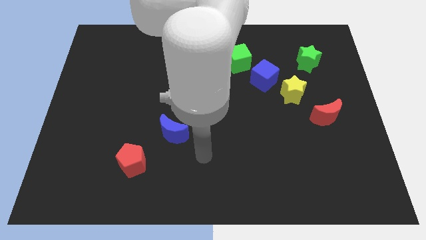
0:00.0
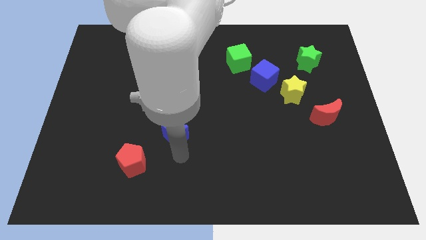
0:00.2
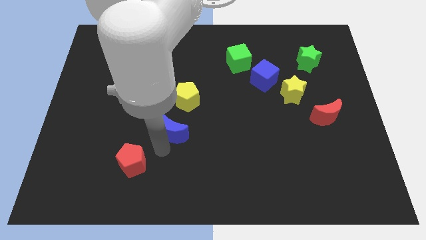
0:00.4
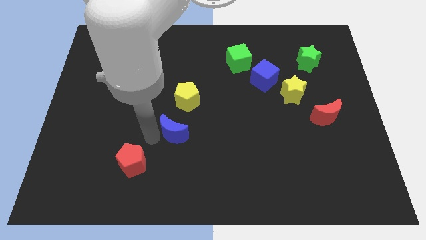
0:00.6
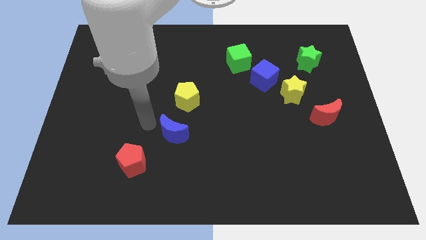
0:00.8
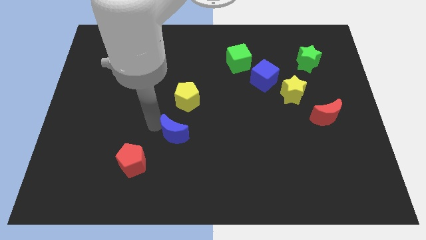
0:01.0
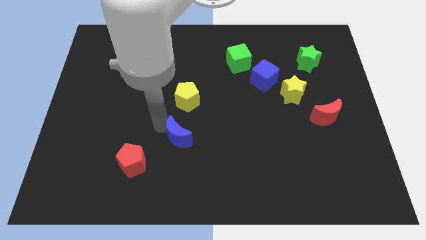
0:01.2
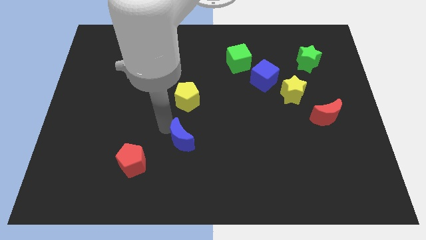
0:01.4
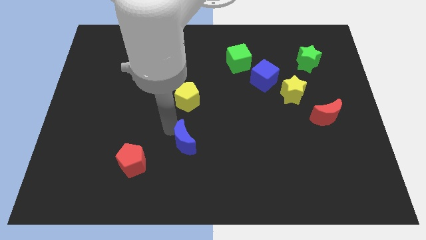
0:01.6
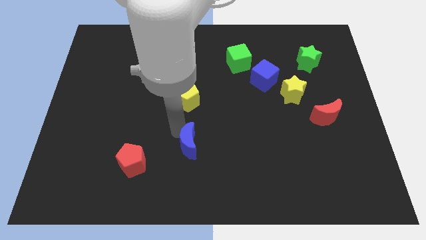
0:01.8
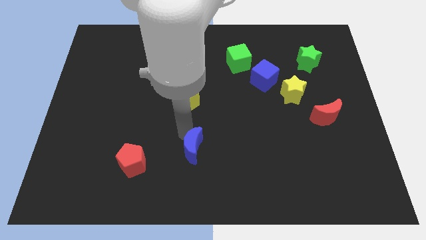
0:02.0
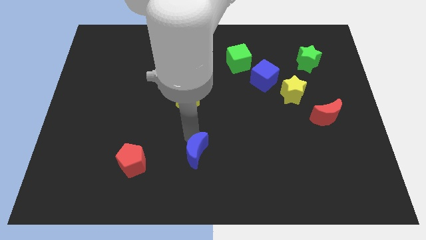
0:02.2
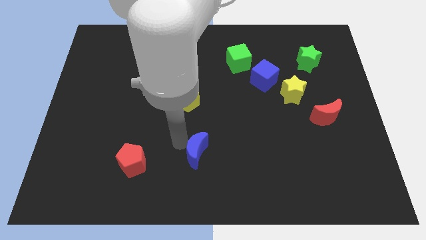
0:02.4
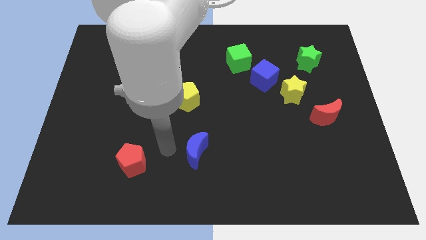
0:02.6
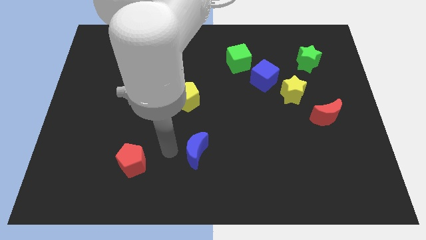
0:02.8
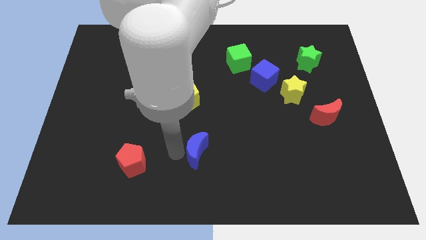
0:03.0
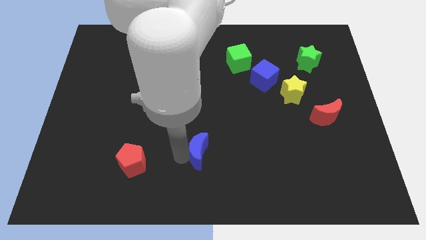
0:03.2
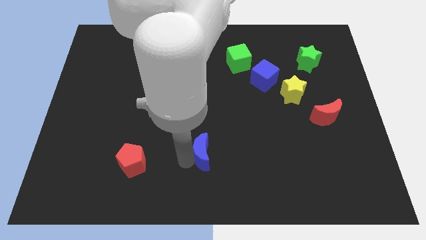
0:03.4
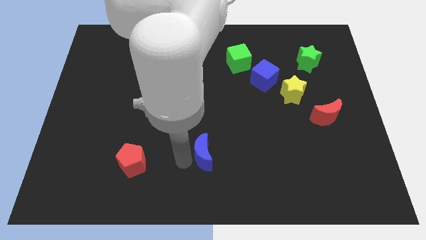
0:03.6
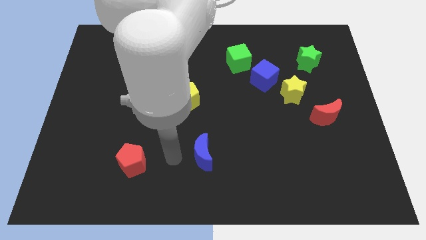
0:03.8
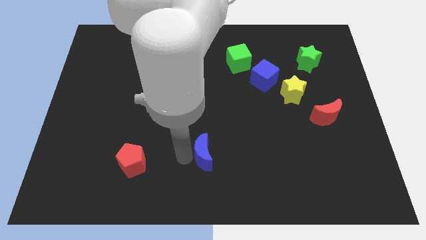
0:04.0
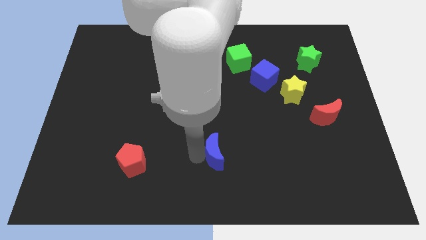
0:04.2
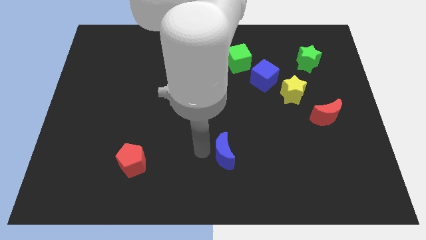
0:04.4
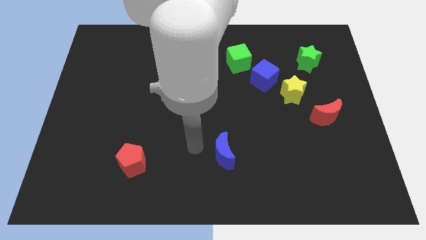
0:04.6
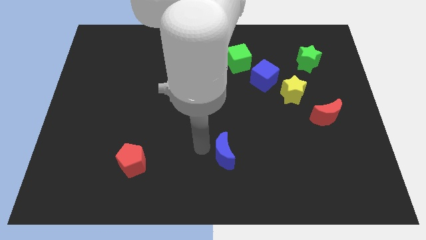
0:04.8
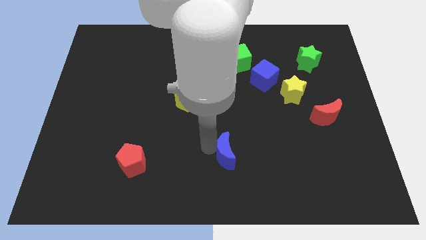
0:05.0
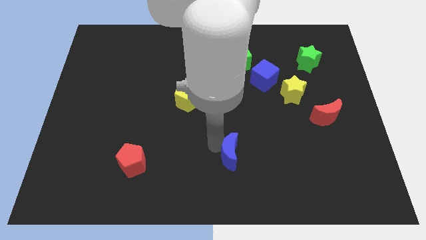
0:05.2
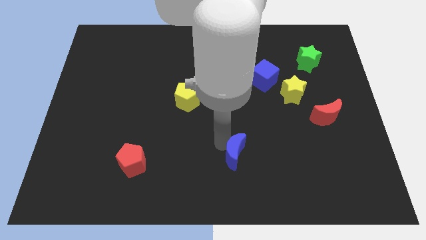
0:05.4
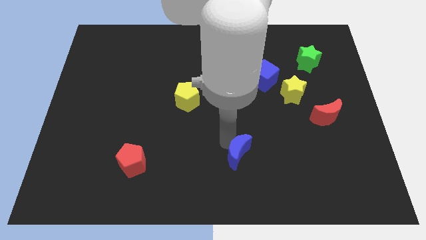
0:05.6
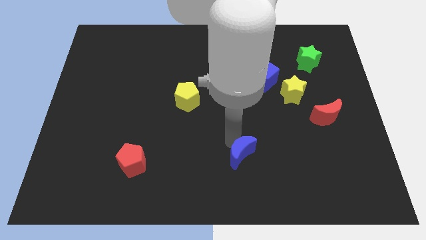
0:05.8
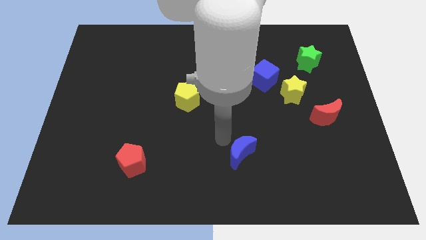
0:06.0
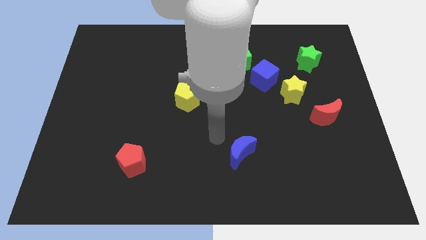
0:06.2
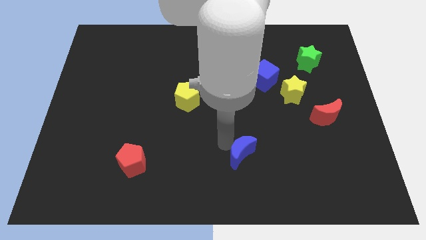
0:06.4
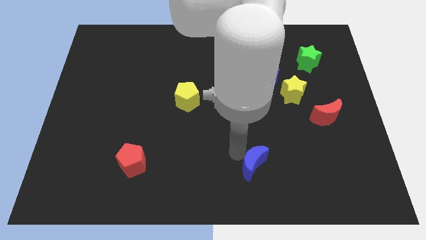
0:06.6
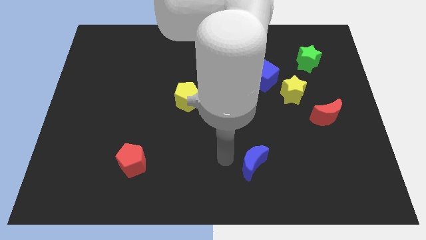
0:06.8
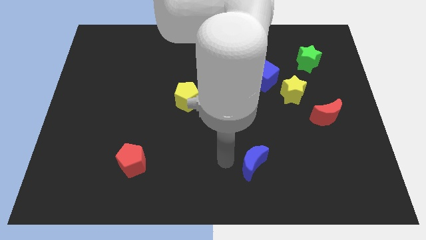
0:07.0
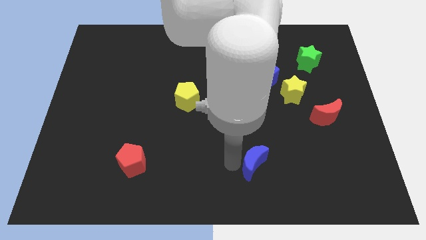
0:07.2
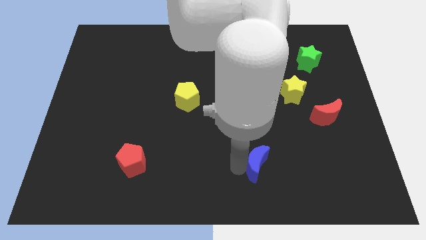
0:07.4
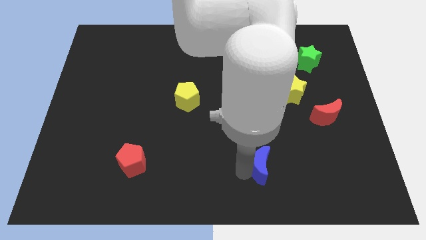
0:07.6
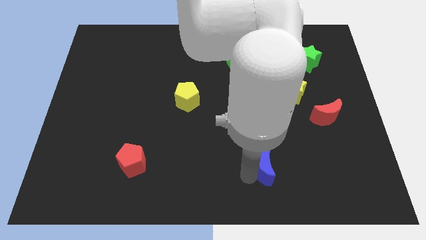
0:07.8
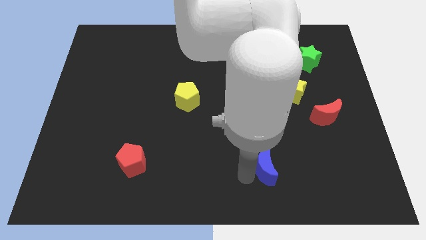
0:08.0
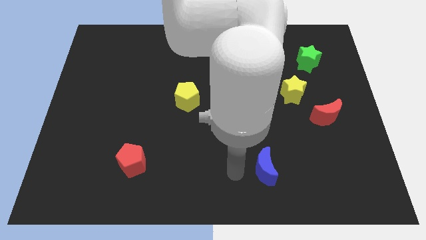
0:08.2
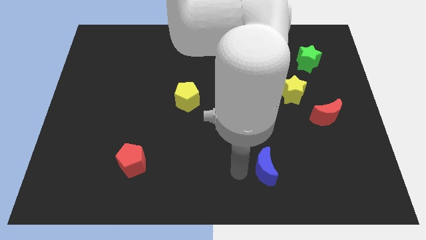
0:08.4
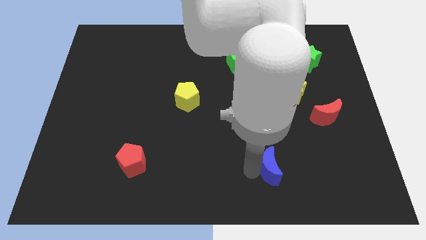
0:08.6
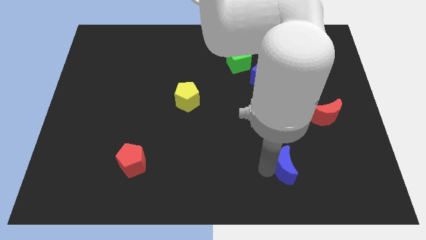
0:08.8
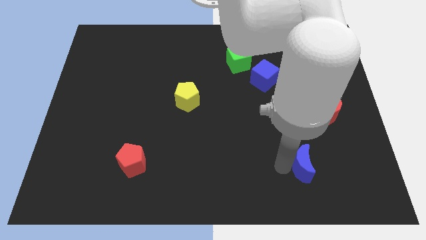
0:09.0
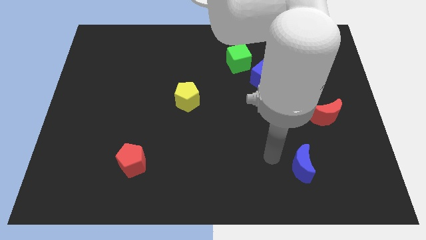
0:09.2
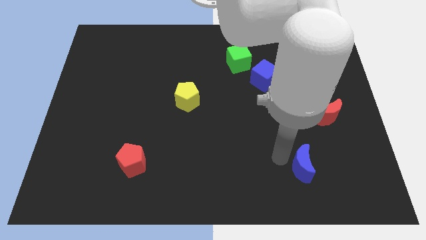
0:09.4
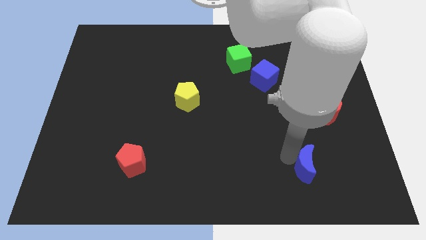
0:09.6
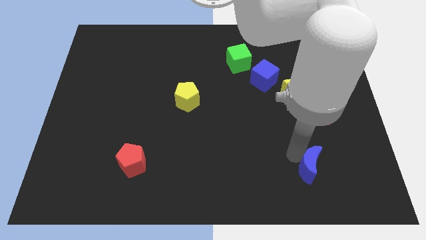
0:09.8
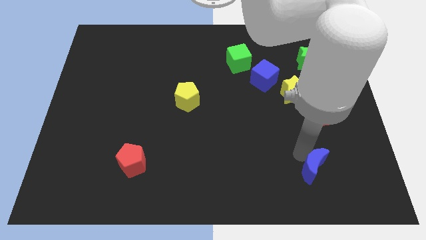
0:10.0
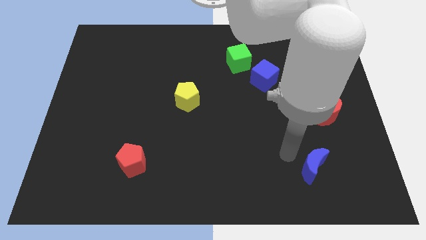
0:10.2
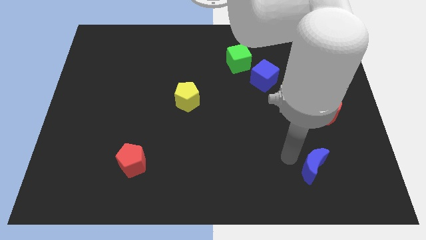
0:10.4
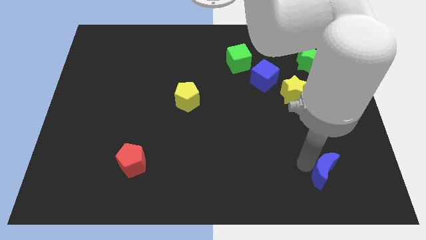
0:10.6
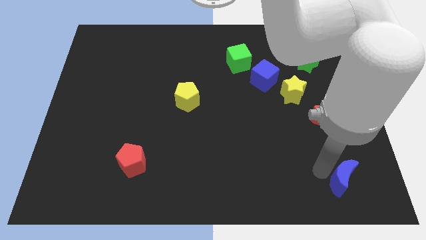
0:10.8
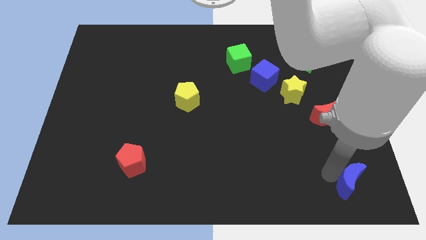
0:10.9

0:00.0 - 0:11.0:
move the blue moon to the bottom right of the board

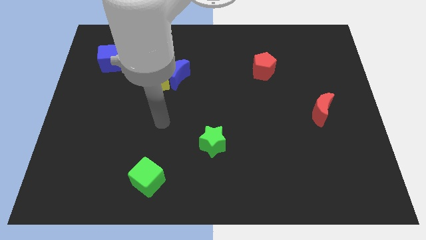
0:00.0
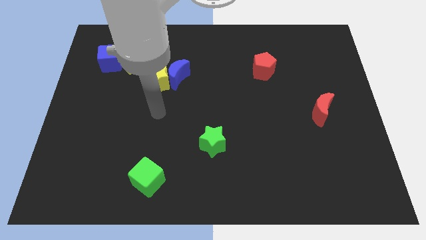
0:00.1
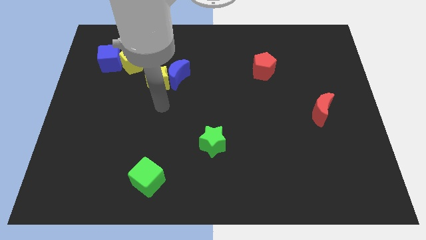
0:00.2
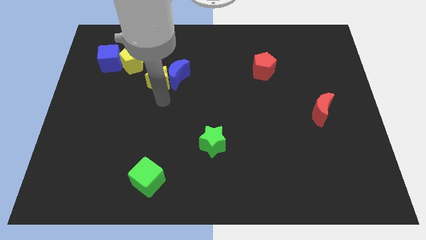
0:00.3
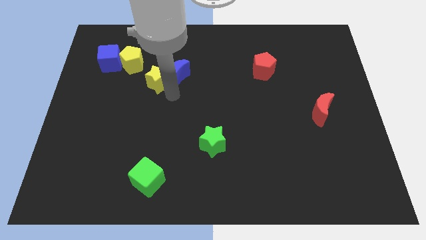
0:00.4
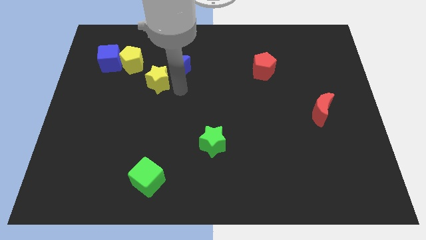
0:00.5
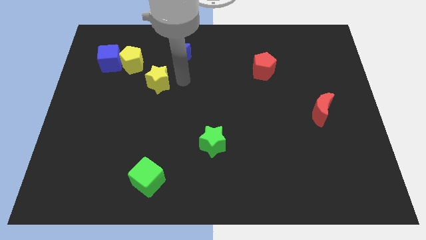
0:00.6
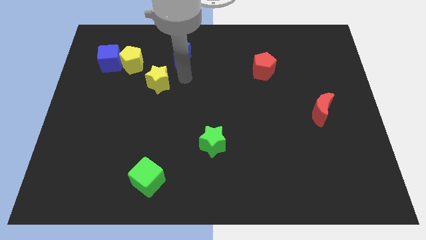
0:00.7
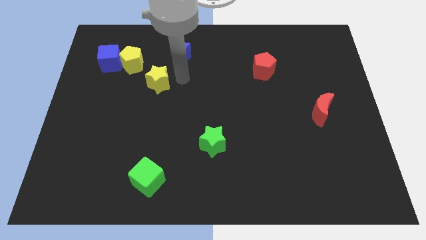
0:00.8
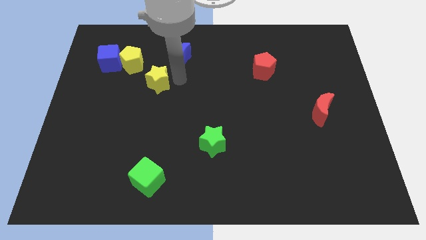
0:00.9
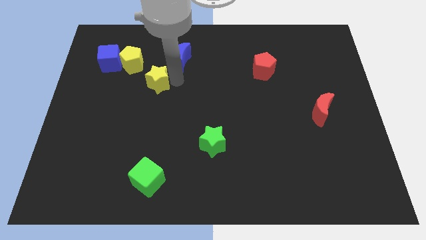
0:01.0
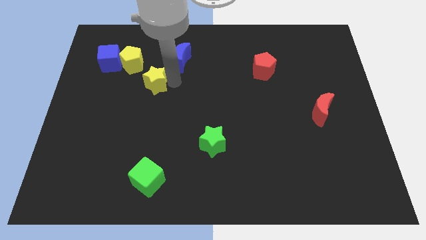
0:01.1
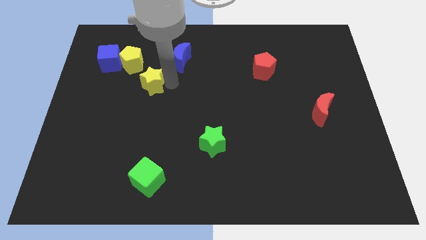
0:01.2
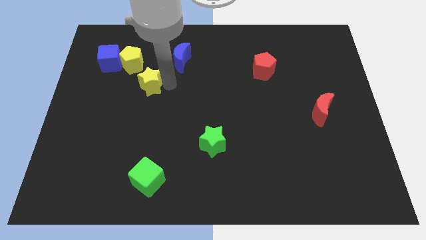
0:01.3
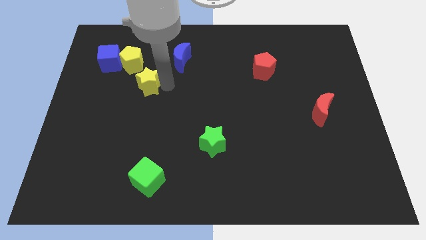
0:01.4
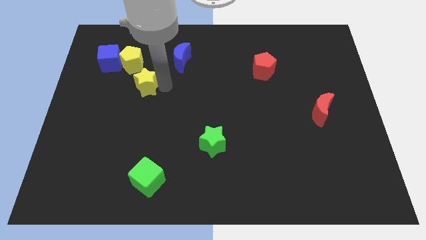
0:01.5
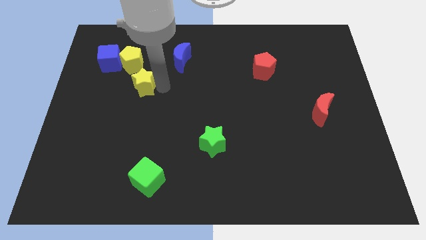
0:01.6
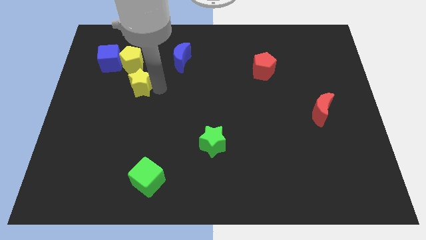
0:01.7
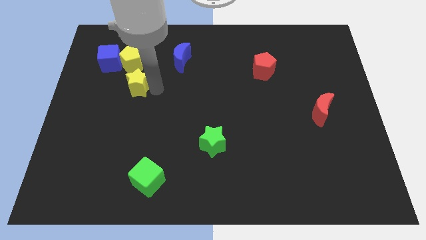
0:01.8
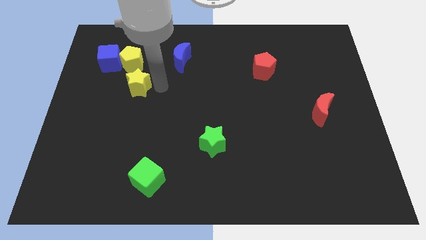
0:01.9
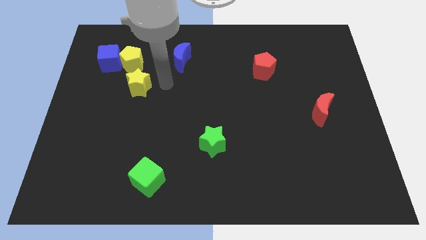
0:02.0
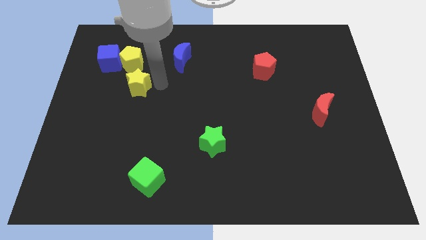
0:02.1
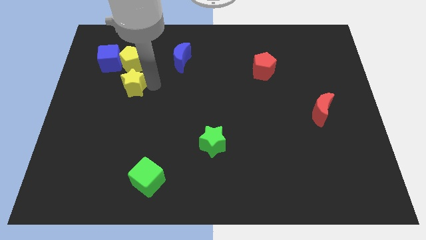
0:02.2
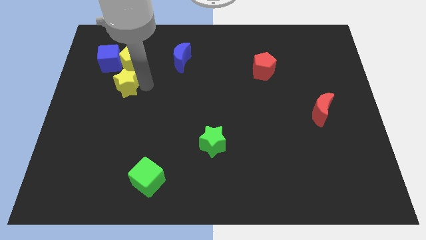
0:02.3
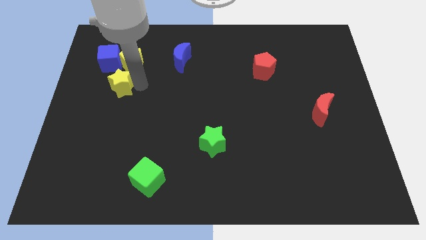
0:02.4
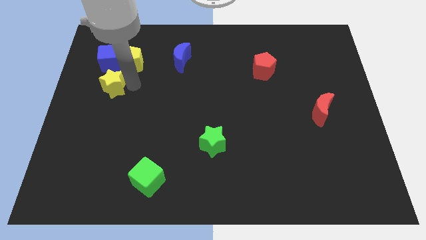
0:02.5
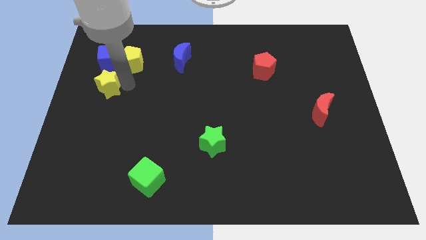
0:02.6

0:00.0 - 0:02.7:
move the yellow star to the center left
